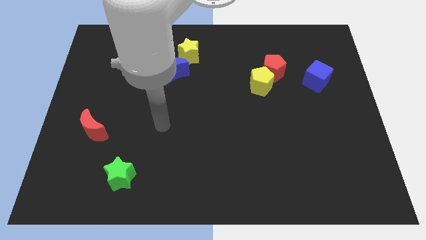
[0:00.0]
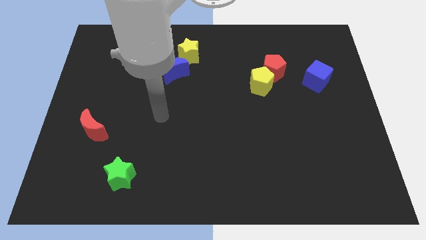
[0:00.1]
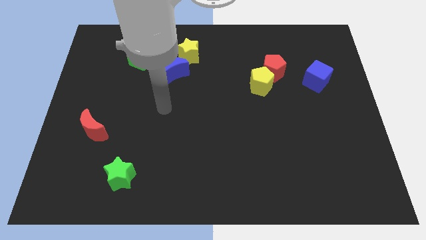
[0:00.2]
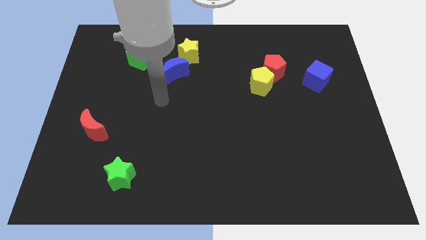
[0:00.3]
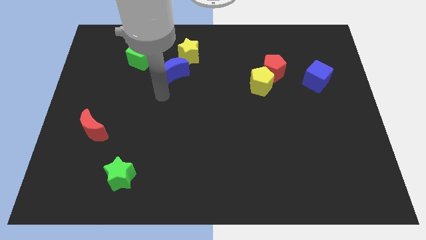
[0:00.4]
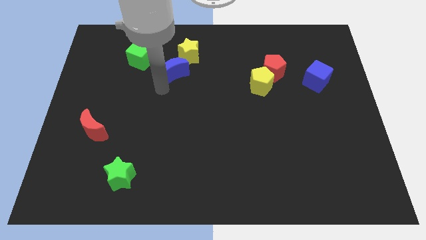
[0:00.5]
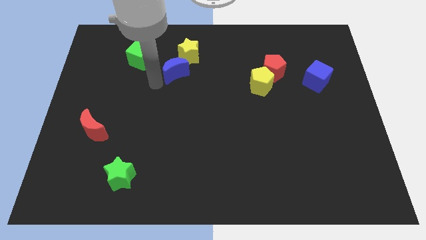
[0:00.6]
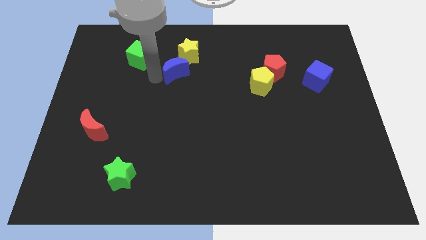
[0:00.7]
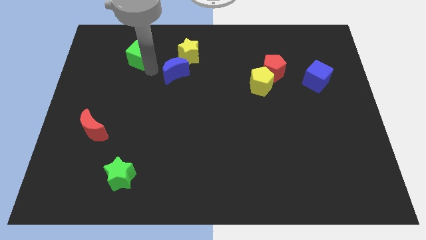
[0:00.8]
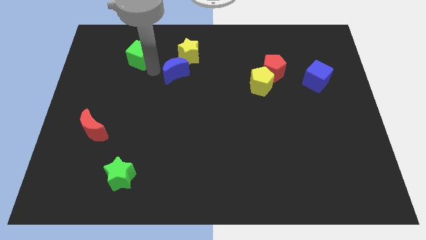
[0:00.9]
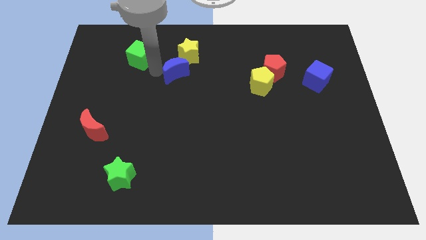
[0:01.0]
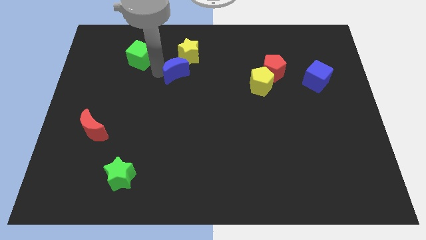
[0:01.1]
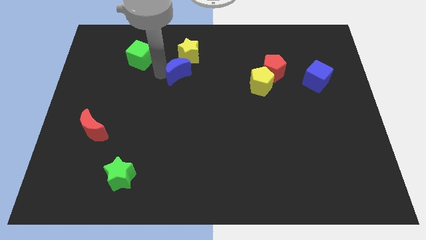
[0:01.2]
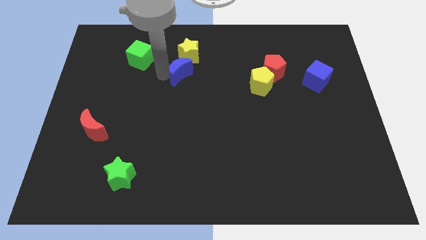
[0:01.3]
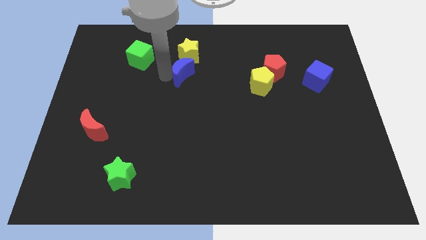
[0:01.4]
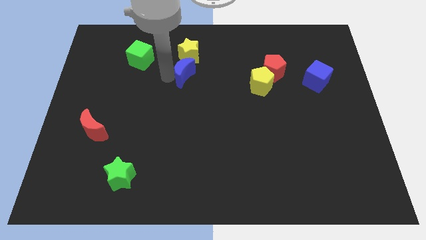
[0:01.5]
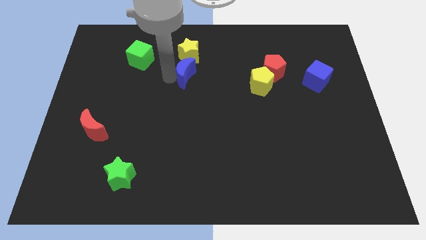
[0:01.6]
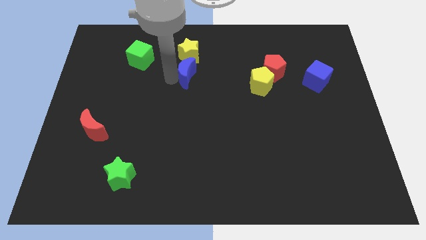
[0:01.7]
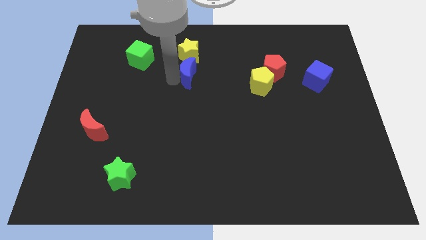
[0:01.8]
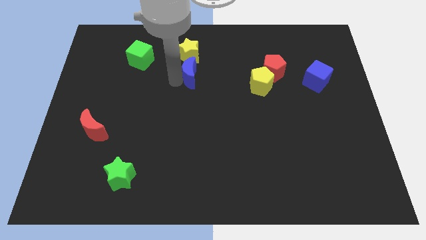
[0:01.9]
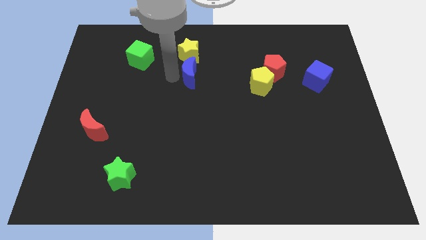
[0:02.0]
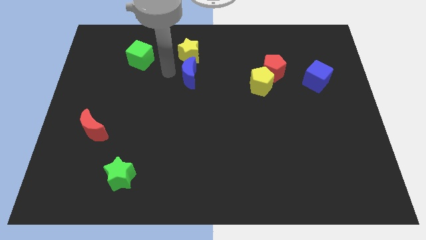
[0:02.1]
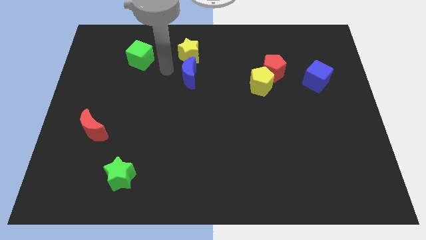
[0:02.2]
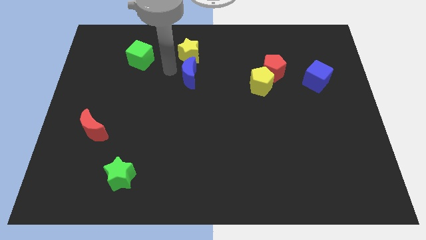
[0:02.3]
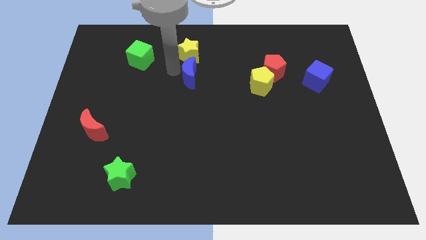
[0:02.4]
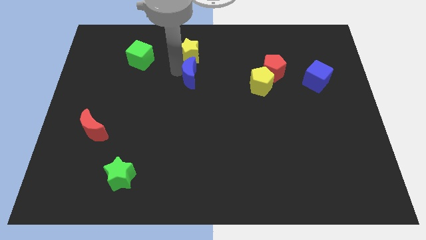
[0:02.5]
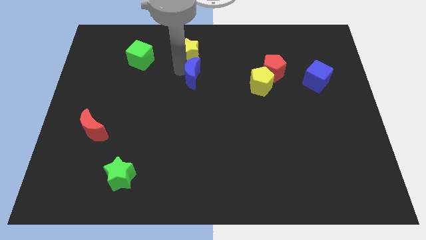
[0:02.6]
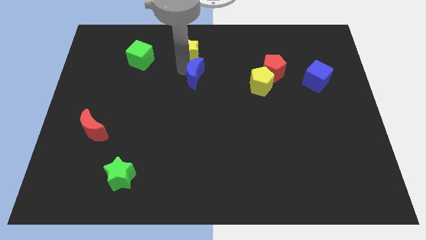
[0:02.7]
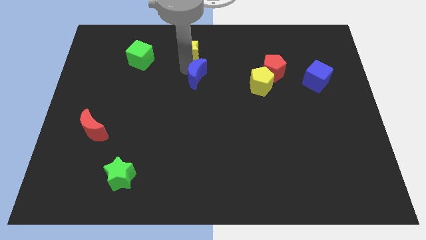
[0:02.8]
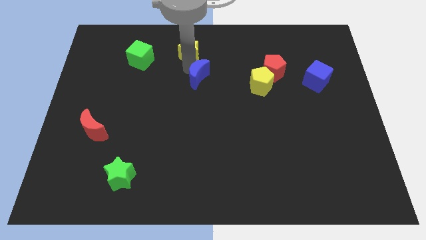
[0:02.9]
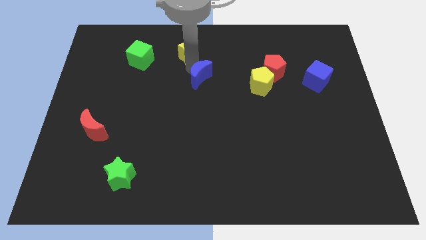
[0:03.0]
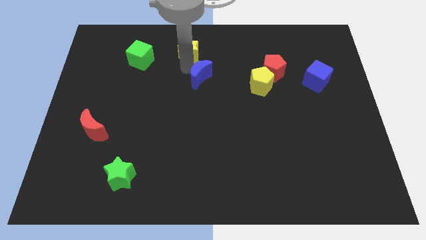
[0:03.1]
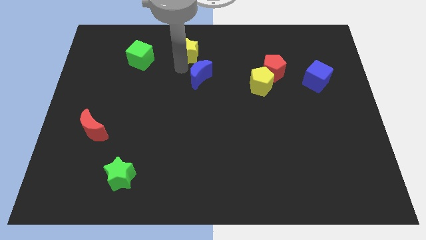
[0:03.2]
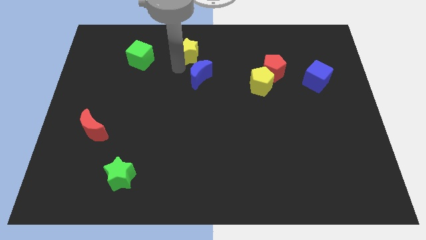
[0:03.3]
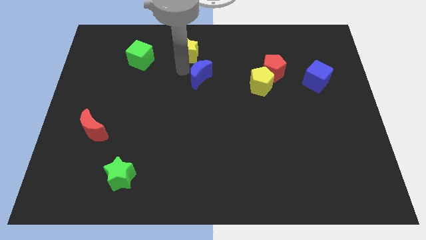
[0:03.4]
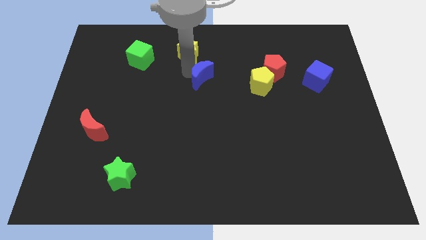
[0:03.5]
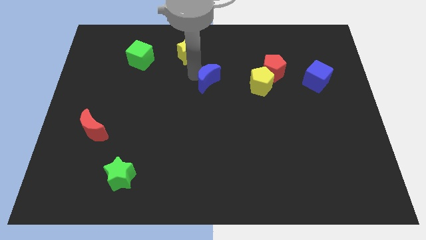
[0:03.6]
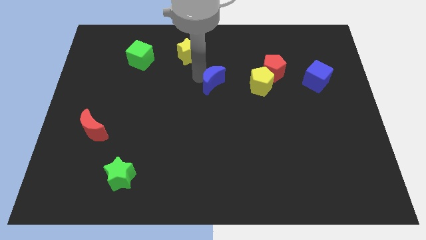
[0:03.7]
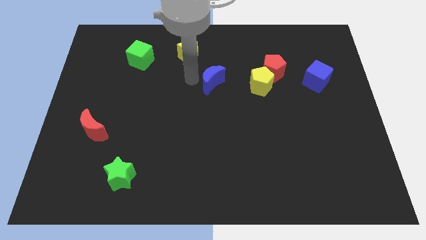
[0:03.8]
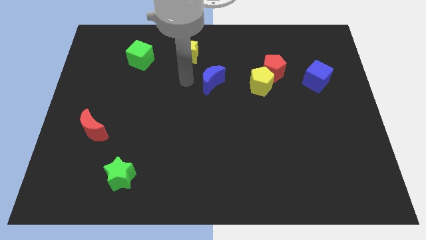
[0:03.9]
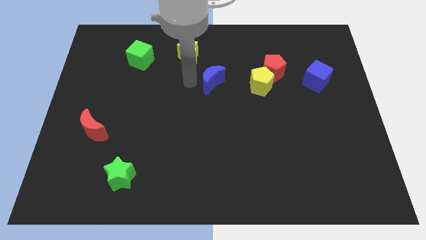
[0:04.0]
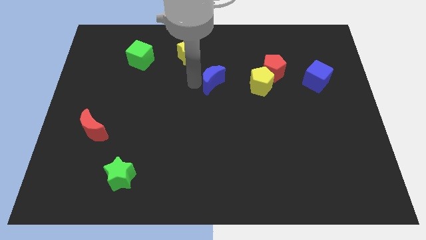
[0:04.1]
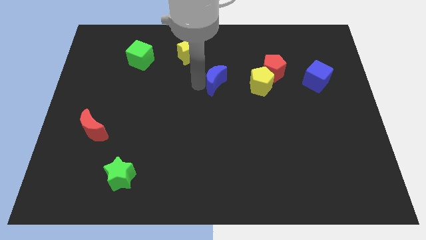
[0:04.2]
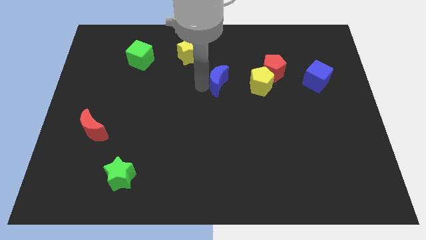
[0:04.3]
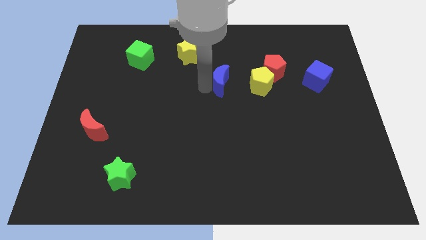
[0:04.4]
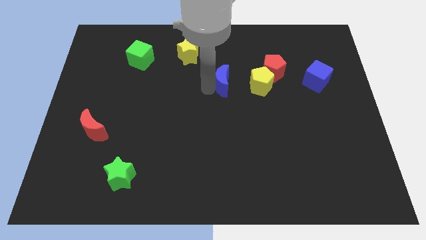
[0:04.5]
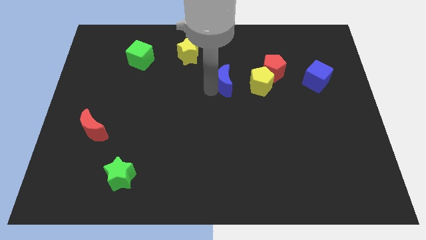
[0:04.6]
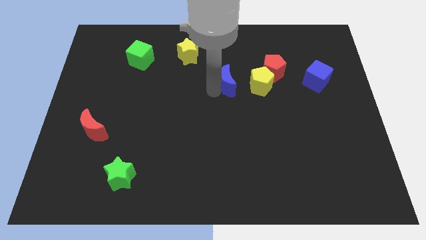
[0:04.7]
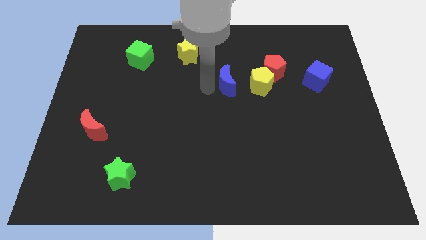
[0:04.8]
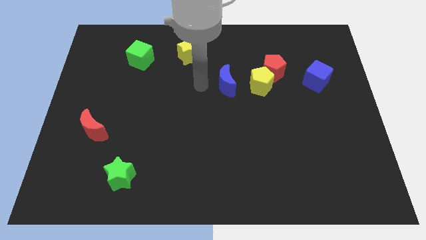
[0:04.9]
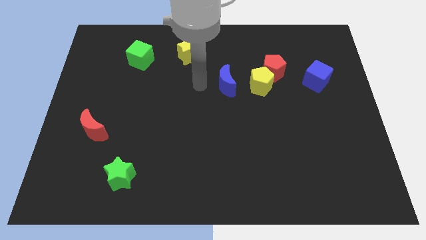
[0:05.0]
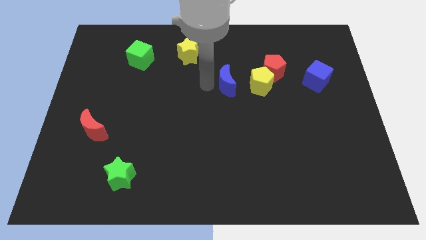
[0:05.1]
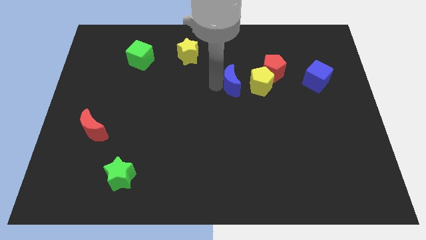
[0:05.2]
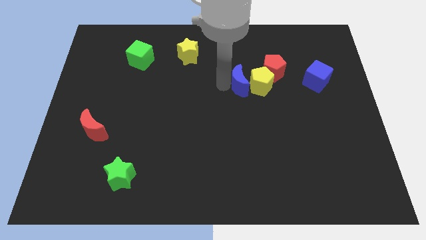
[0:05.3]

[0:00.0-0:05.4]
slide the blue moon to the yellow pentagon

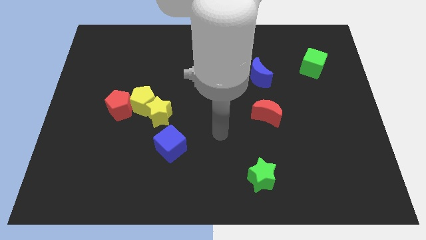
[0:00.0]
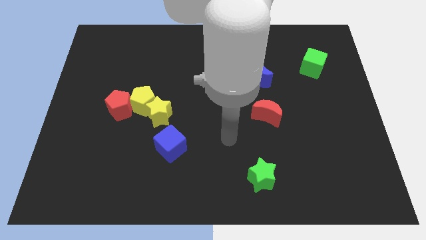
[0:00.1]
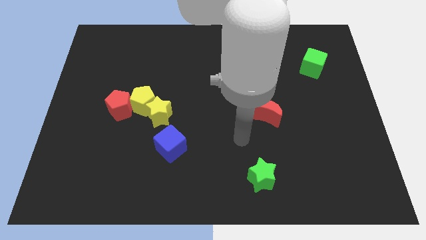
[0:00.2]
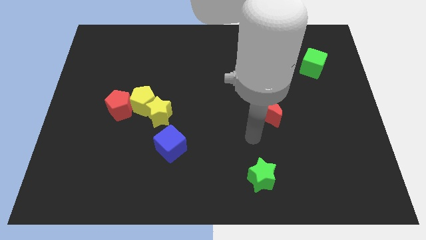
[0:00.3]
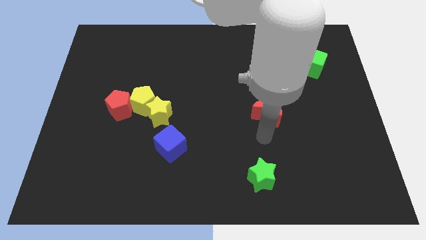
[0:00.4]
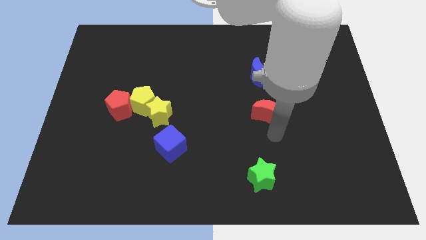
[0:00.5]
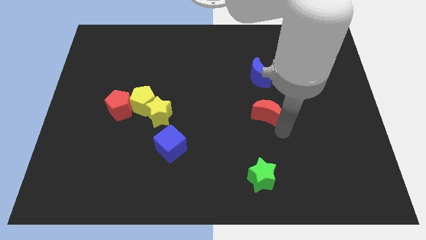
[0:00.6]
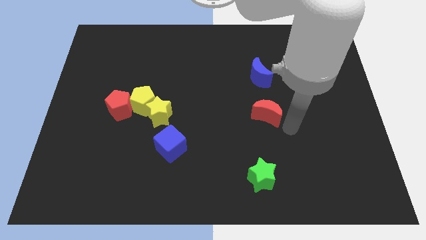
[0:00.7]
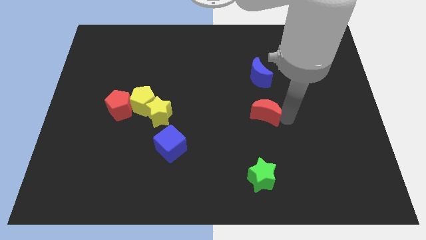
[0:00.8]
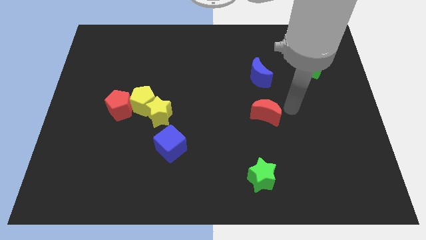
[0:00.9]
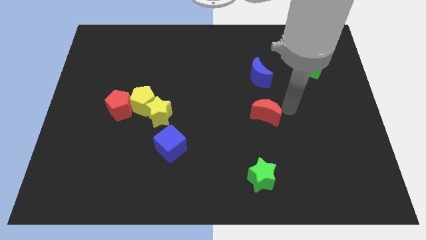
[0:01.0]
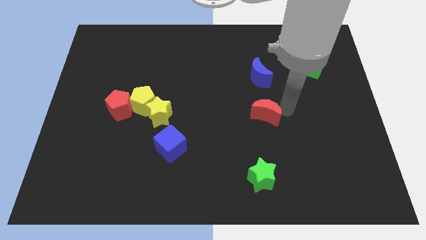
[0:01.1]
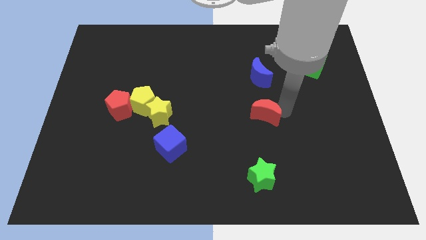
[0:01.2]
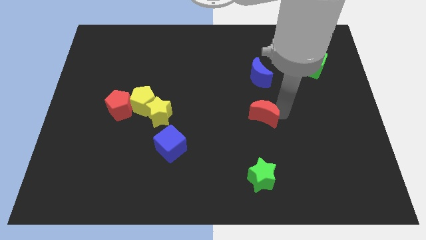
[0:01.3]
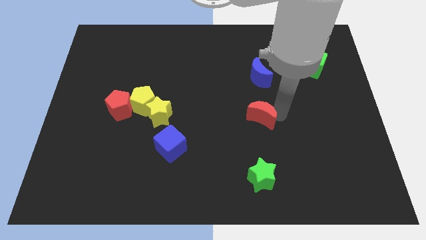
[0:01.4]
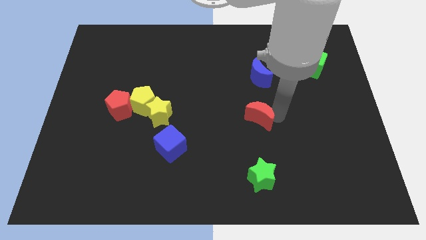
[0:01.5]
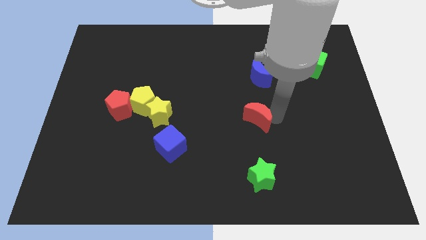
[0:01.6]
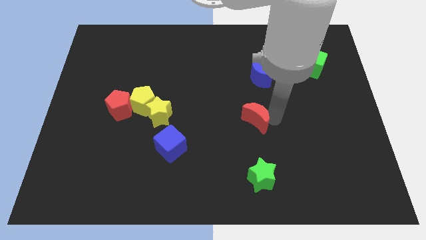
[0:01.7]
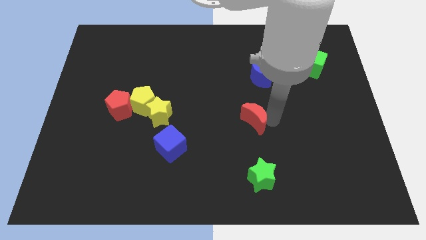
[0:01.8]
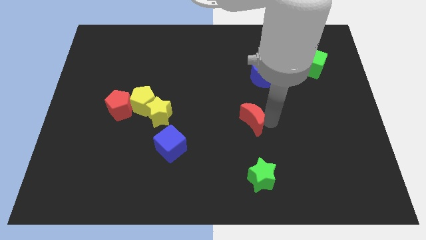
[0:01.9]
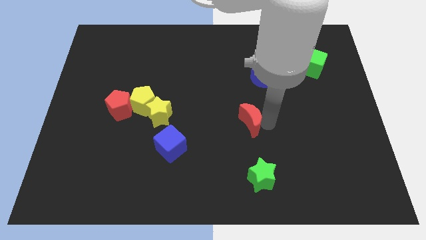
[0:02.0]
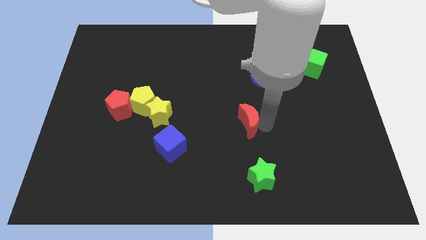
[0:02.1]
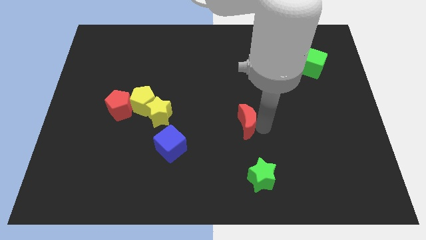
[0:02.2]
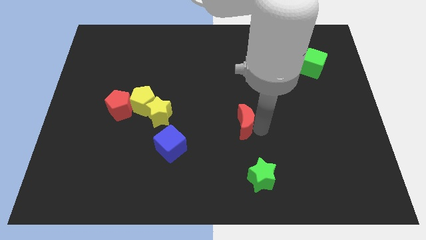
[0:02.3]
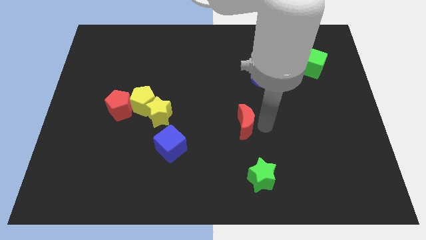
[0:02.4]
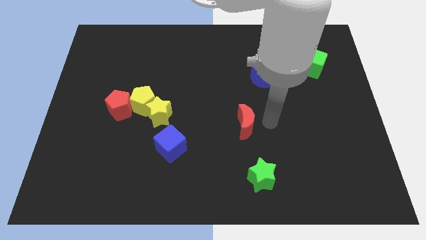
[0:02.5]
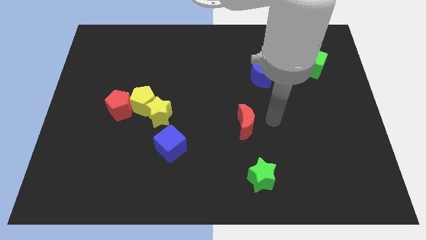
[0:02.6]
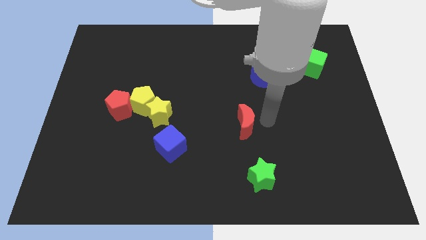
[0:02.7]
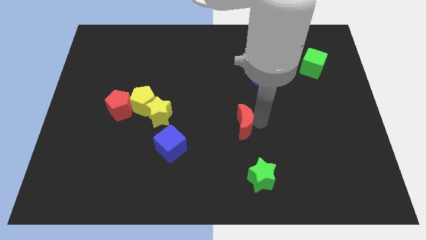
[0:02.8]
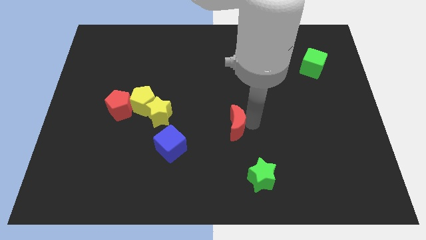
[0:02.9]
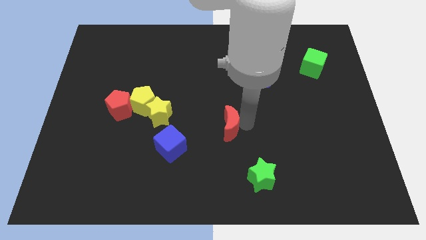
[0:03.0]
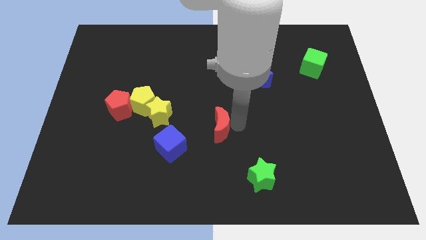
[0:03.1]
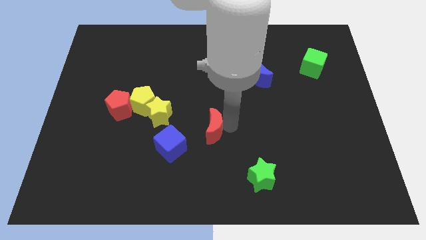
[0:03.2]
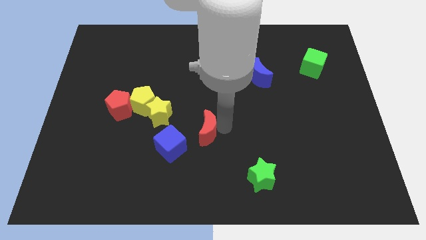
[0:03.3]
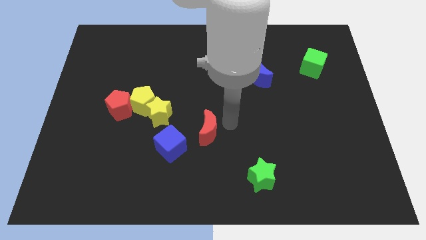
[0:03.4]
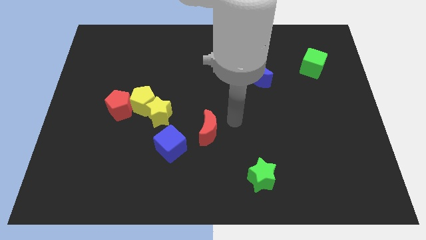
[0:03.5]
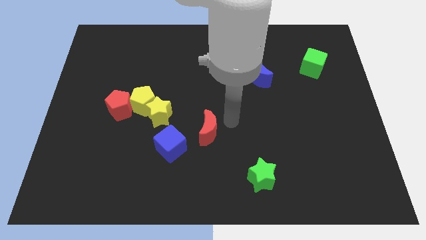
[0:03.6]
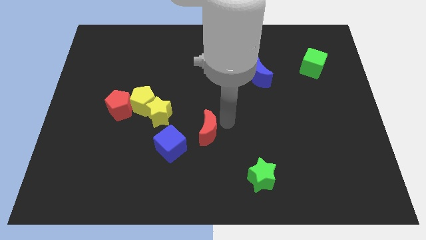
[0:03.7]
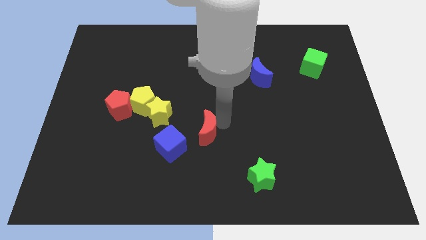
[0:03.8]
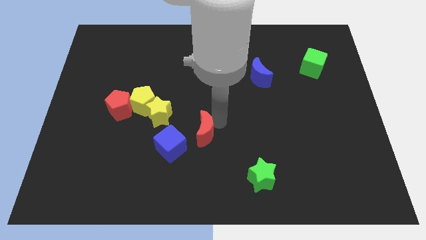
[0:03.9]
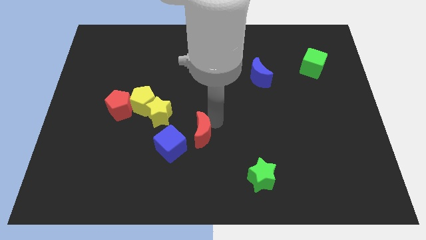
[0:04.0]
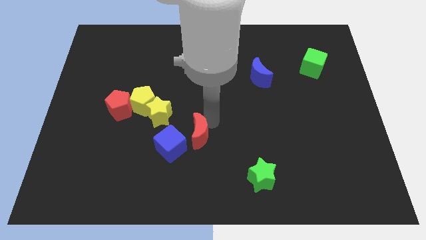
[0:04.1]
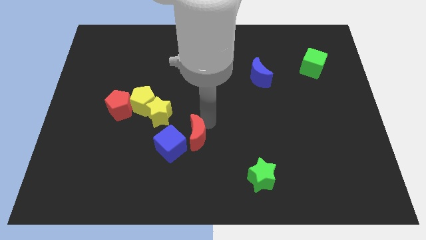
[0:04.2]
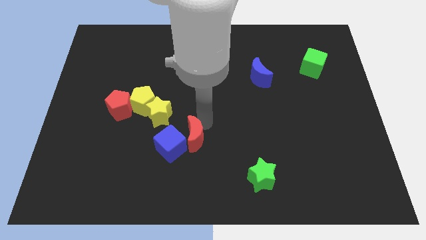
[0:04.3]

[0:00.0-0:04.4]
push the red moon next to the blue cube
